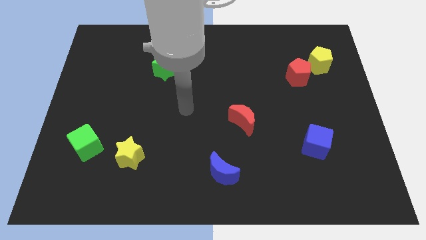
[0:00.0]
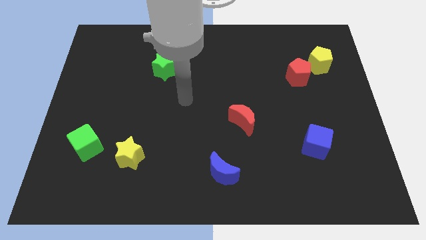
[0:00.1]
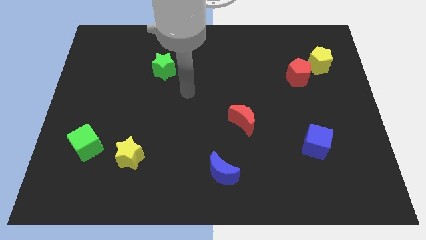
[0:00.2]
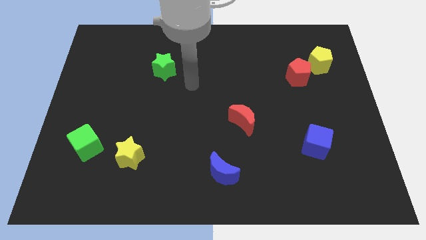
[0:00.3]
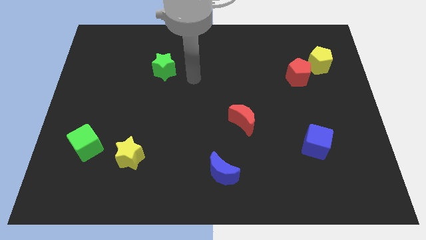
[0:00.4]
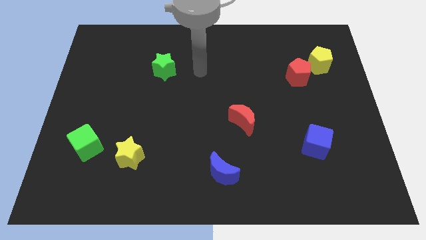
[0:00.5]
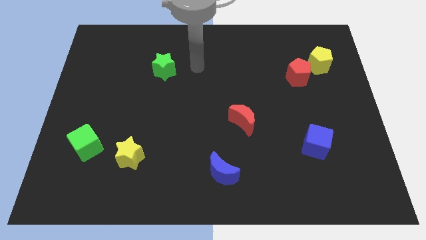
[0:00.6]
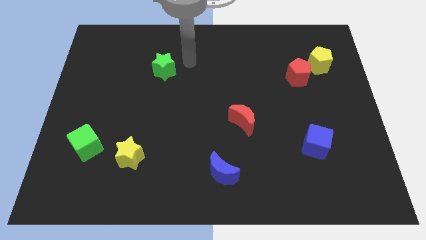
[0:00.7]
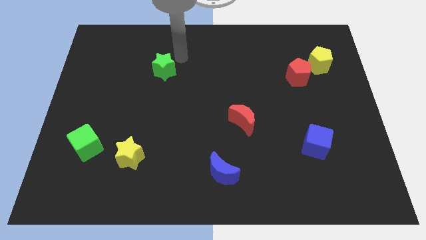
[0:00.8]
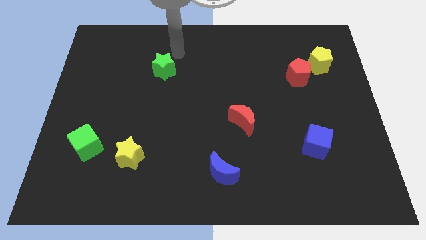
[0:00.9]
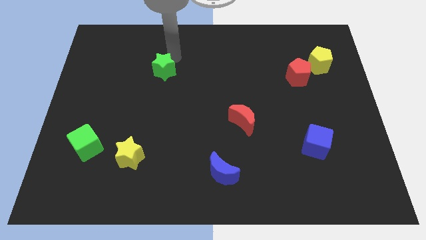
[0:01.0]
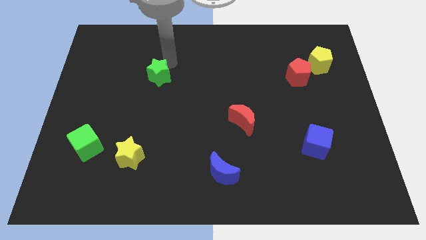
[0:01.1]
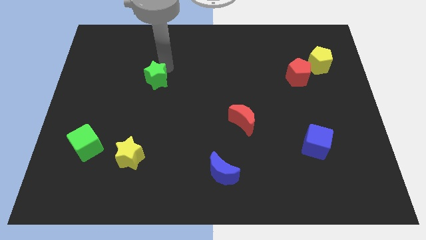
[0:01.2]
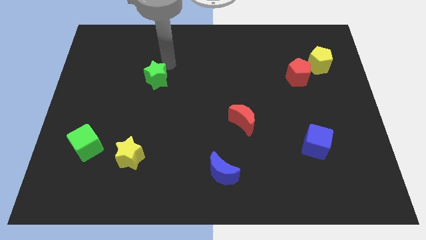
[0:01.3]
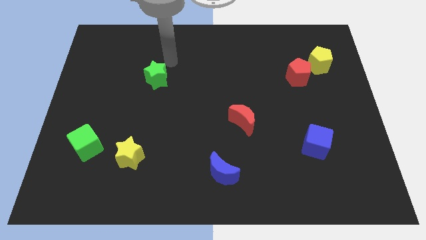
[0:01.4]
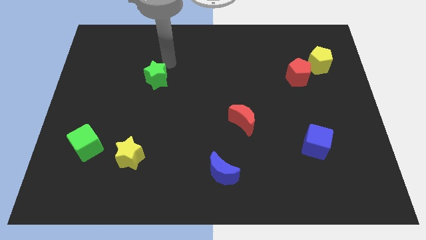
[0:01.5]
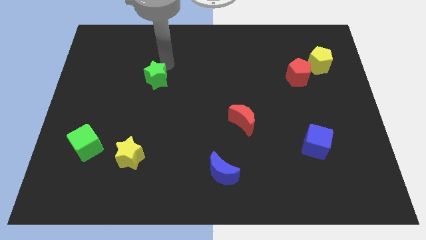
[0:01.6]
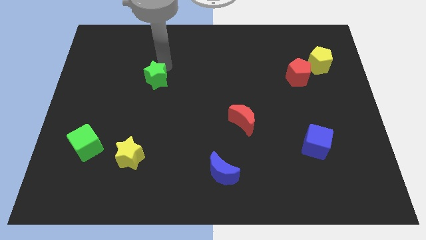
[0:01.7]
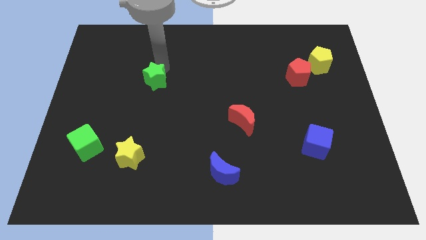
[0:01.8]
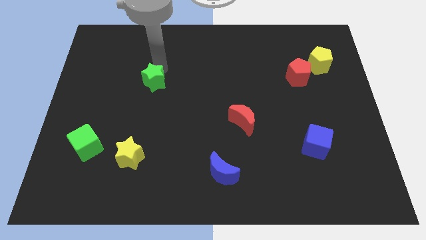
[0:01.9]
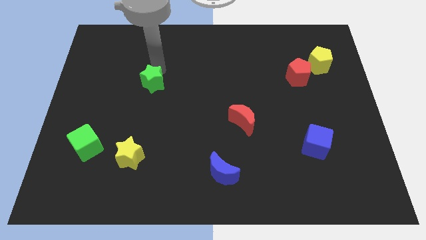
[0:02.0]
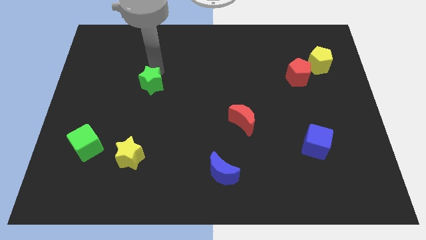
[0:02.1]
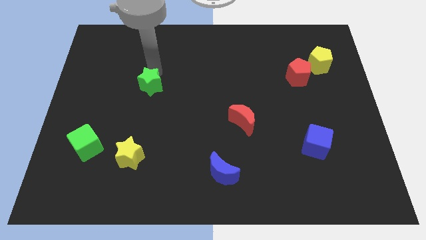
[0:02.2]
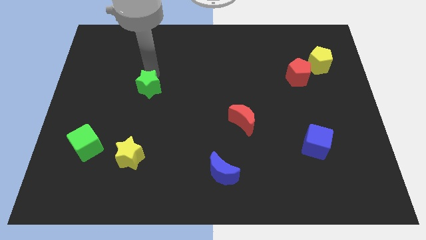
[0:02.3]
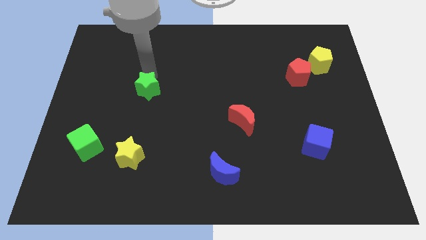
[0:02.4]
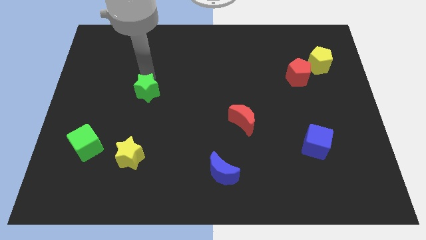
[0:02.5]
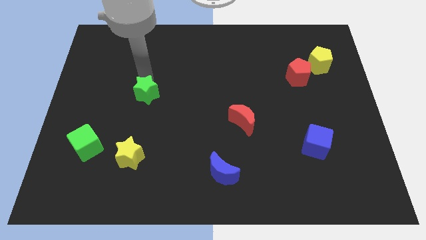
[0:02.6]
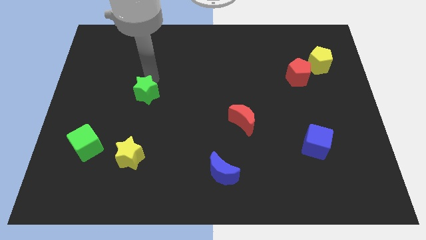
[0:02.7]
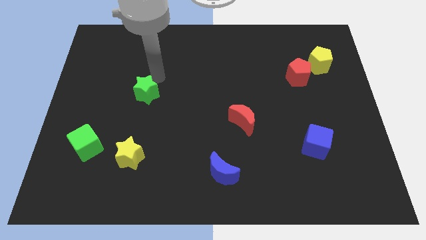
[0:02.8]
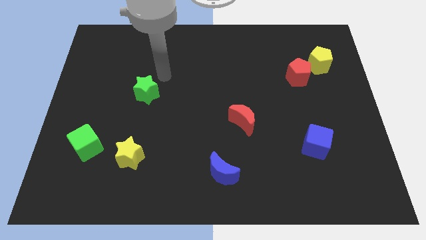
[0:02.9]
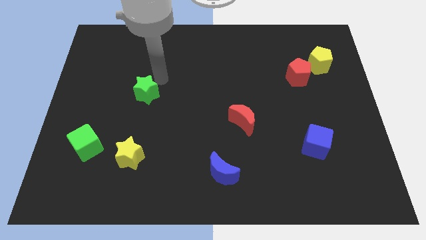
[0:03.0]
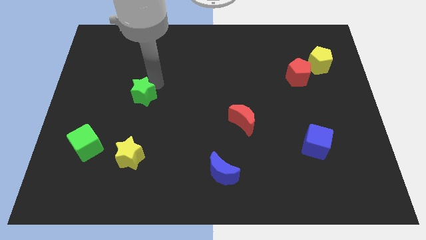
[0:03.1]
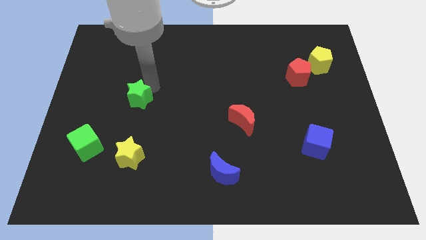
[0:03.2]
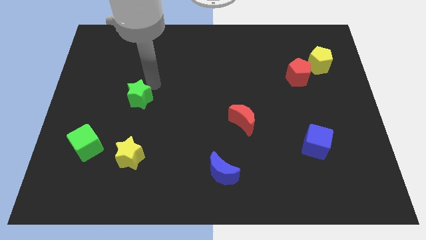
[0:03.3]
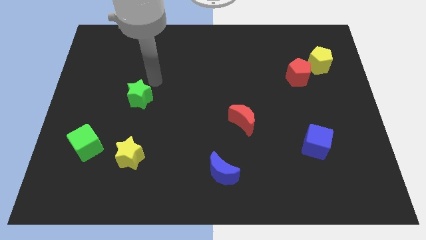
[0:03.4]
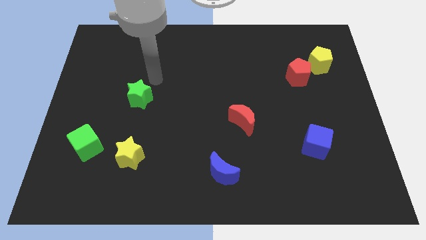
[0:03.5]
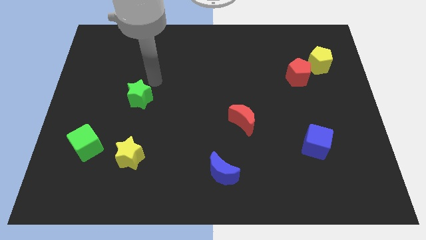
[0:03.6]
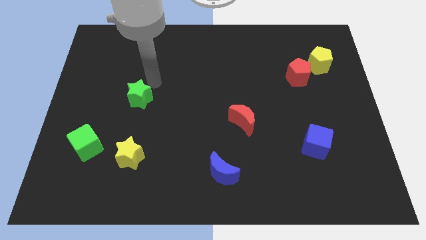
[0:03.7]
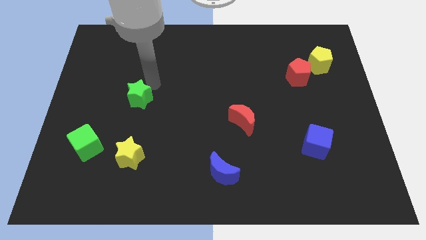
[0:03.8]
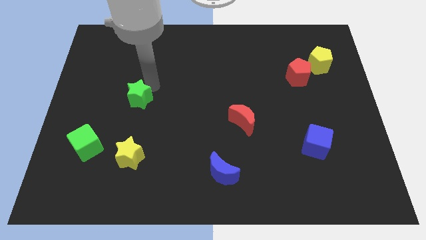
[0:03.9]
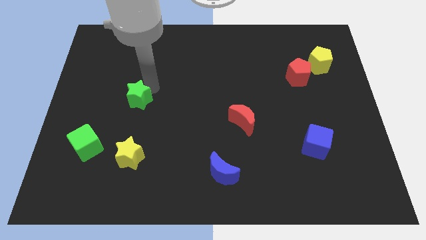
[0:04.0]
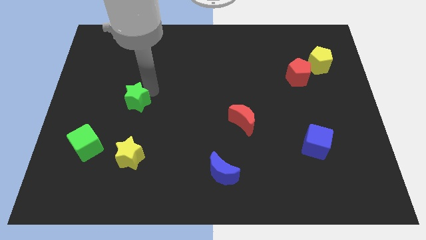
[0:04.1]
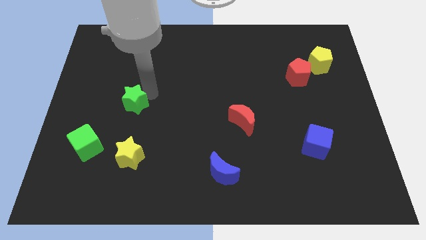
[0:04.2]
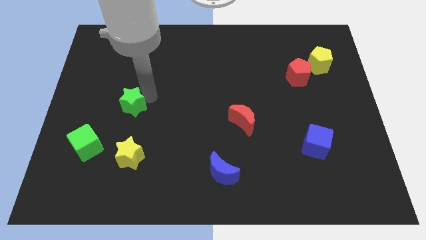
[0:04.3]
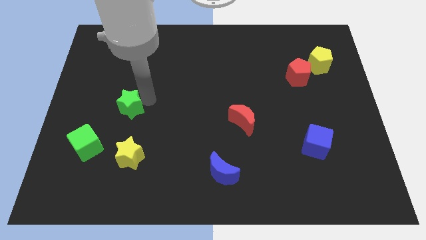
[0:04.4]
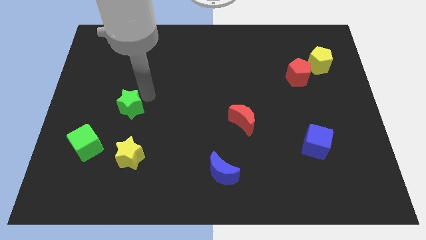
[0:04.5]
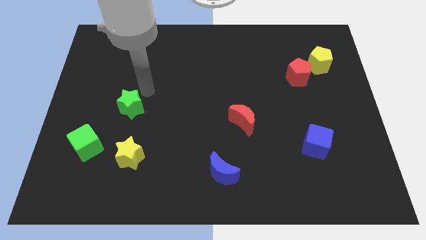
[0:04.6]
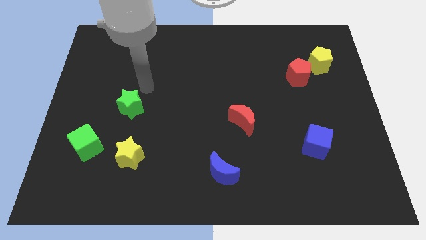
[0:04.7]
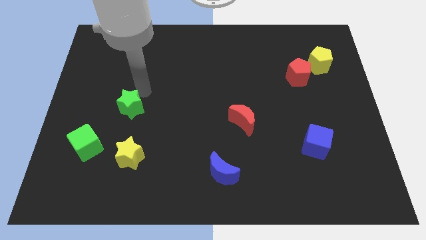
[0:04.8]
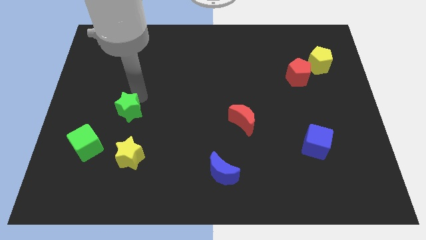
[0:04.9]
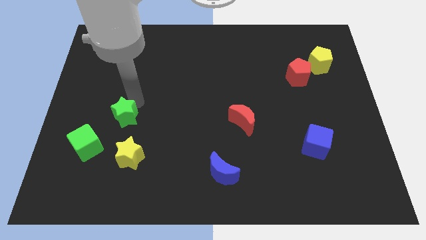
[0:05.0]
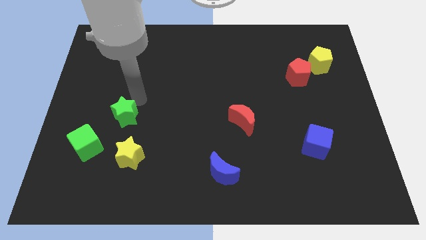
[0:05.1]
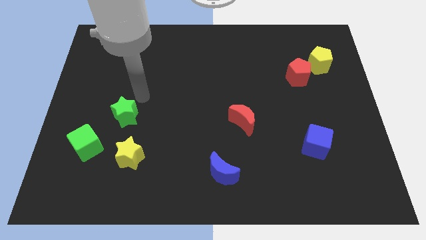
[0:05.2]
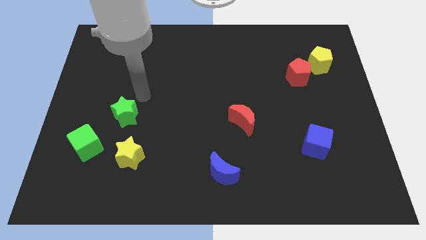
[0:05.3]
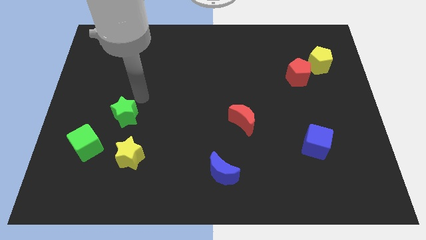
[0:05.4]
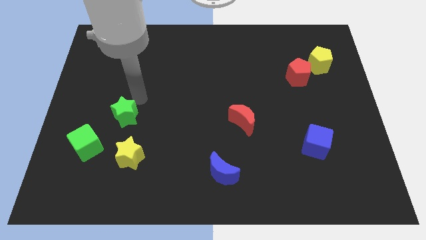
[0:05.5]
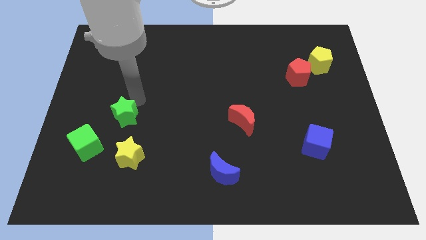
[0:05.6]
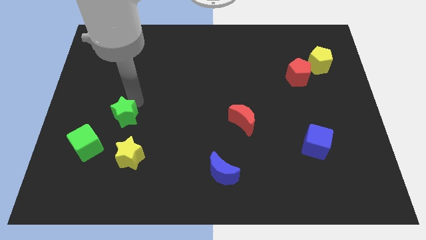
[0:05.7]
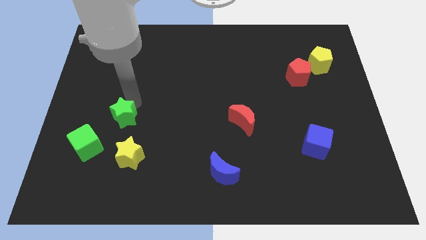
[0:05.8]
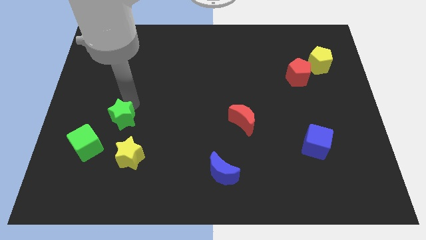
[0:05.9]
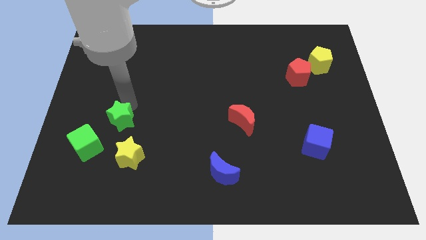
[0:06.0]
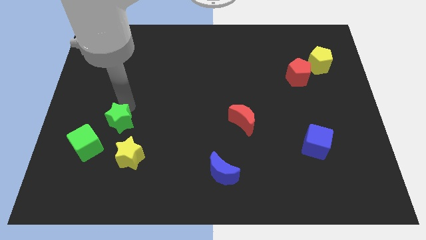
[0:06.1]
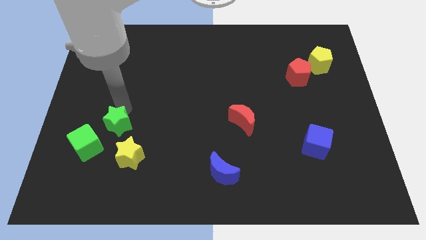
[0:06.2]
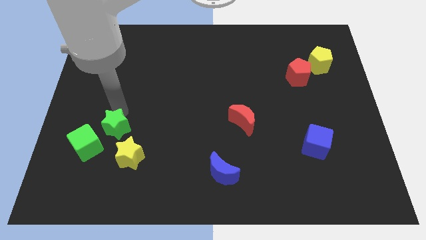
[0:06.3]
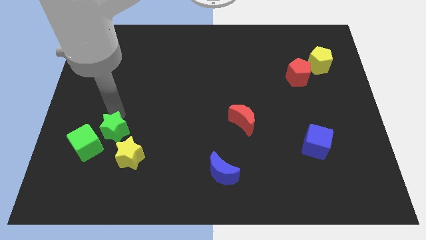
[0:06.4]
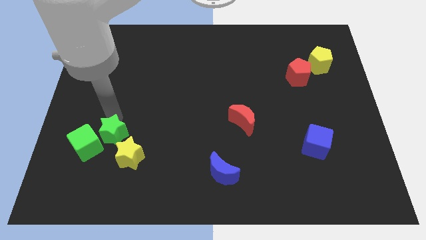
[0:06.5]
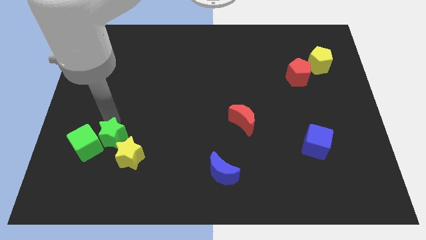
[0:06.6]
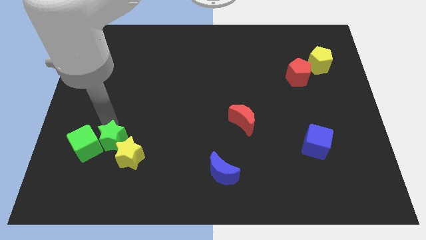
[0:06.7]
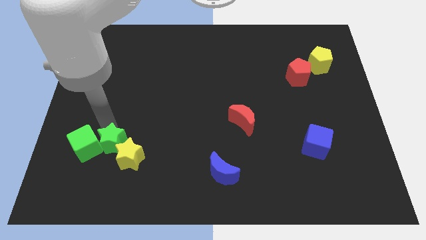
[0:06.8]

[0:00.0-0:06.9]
move the green star diagonally down and to the right of the green cube

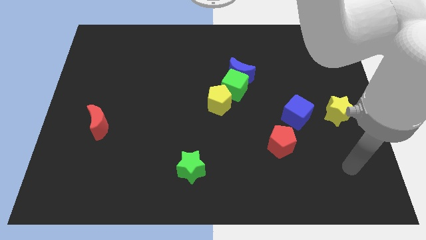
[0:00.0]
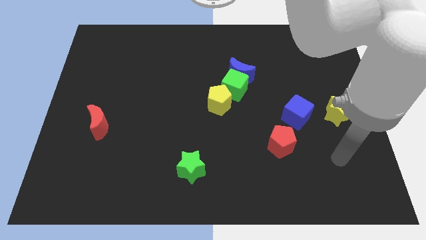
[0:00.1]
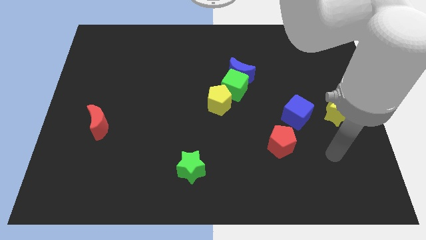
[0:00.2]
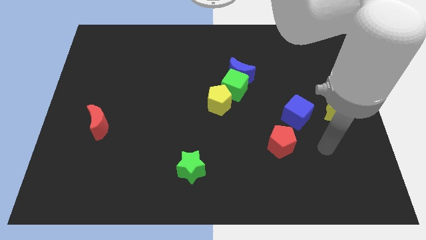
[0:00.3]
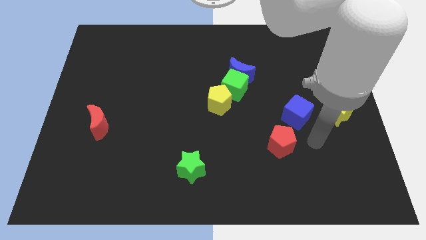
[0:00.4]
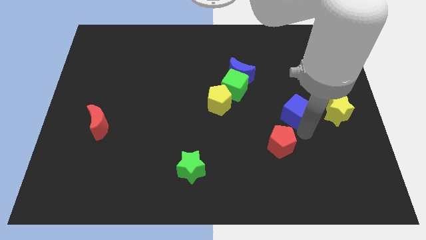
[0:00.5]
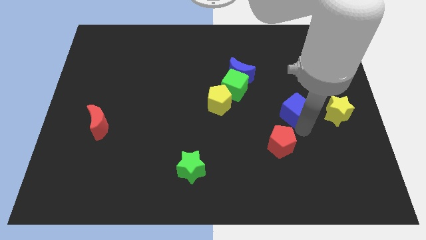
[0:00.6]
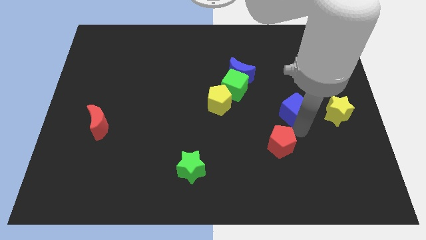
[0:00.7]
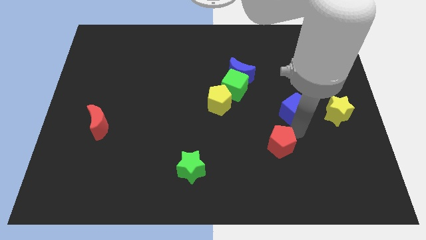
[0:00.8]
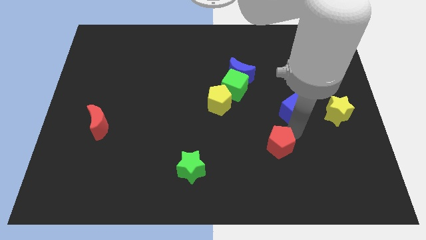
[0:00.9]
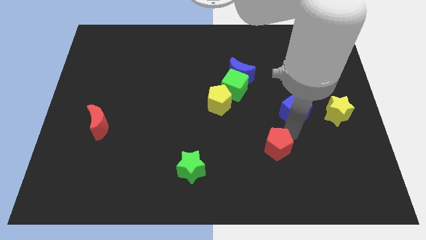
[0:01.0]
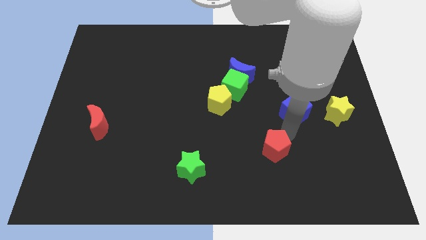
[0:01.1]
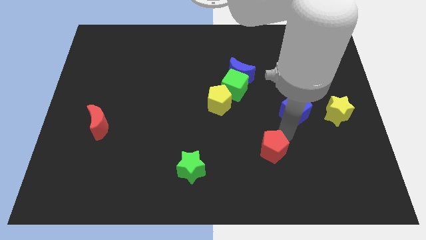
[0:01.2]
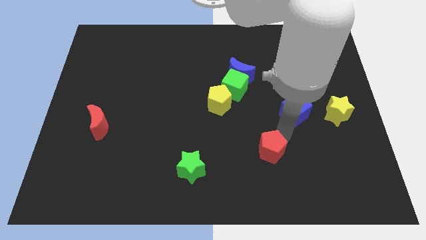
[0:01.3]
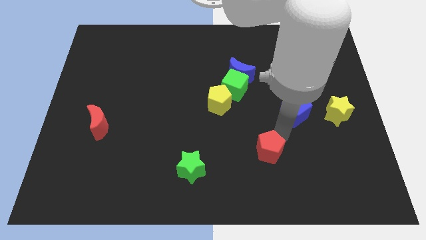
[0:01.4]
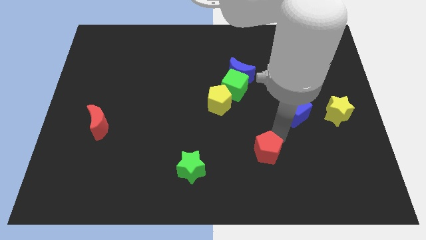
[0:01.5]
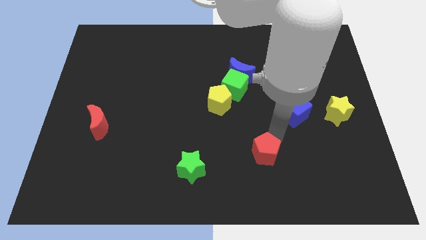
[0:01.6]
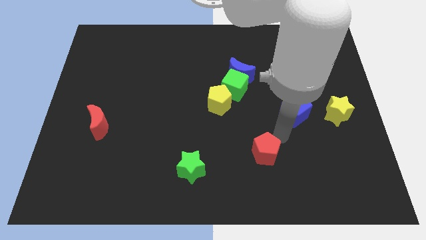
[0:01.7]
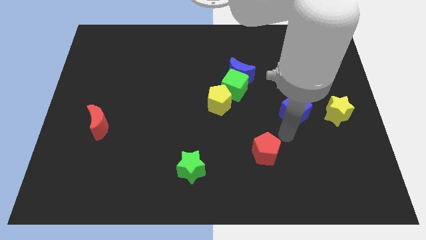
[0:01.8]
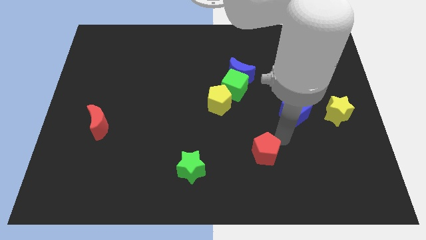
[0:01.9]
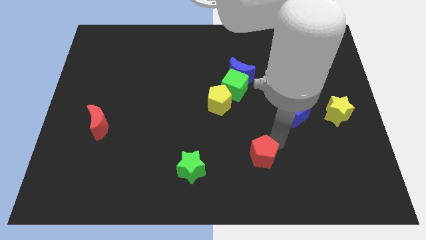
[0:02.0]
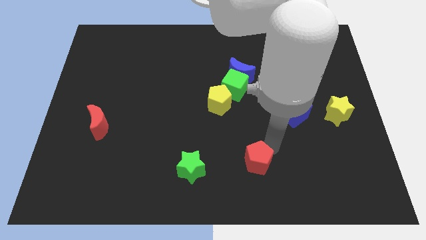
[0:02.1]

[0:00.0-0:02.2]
move the red pentagon just right of the green star
